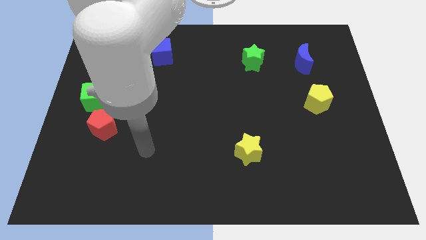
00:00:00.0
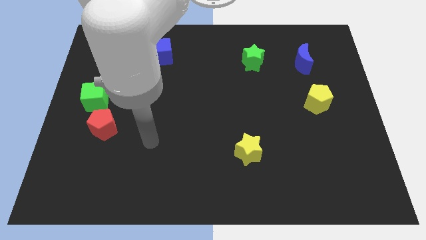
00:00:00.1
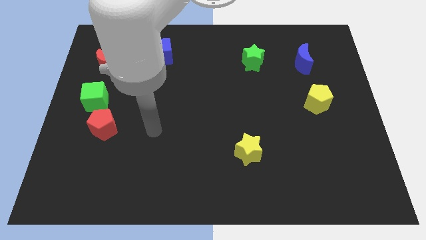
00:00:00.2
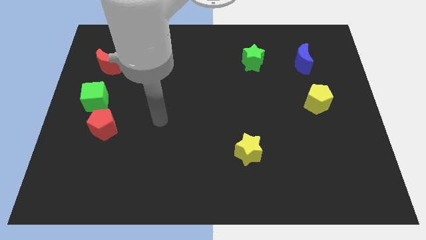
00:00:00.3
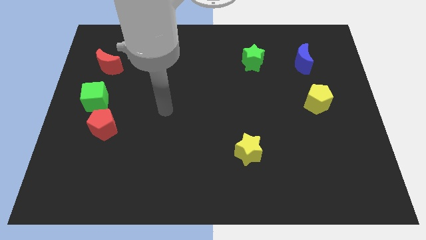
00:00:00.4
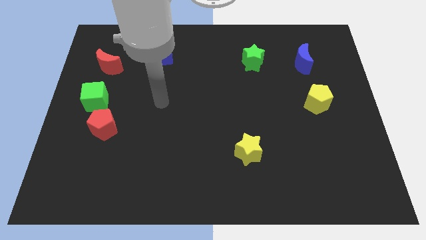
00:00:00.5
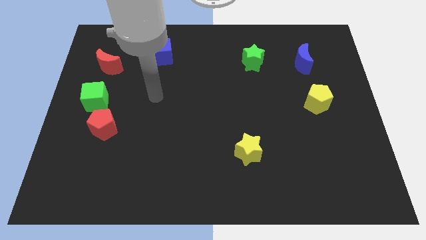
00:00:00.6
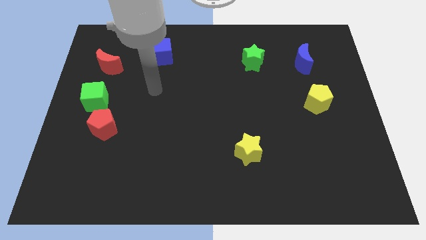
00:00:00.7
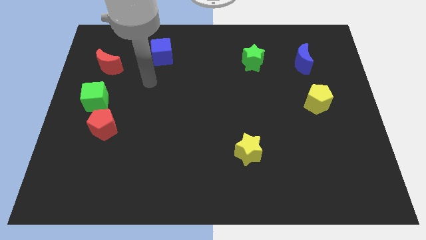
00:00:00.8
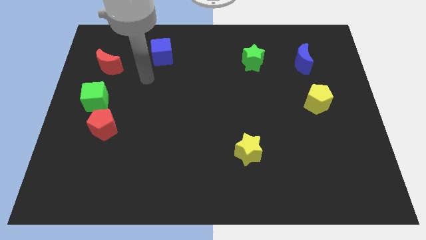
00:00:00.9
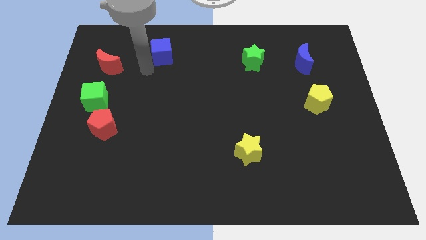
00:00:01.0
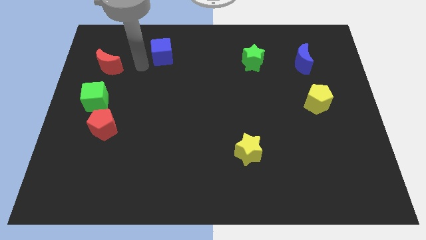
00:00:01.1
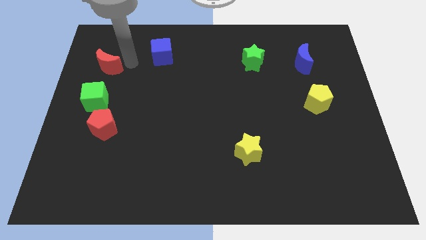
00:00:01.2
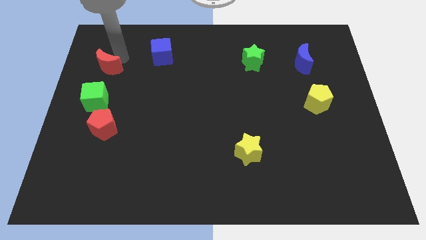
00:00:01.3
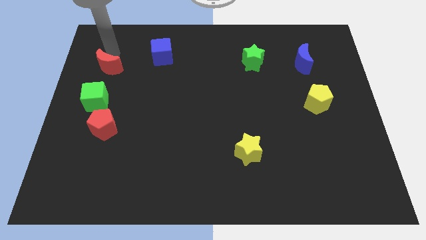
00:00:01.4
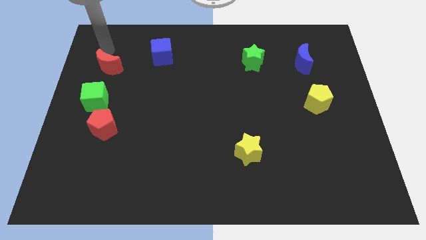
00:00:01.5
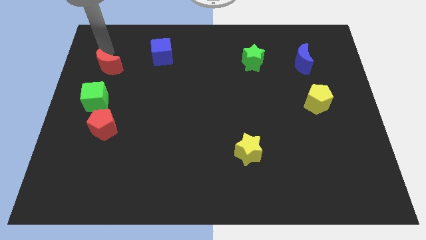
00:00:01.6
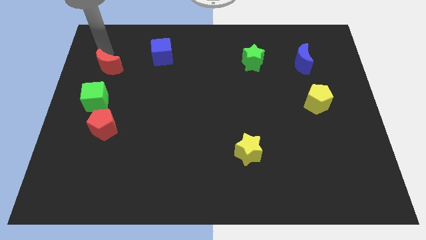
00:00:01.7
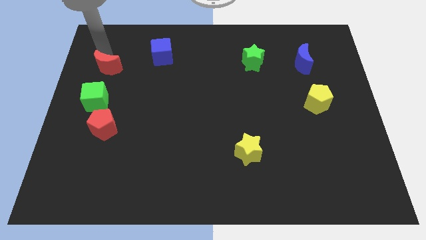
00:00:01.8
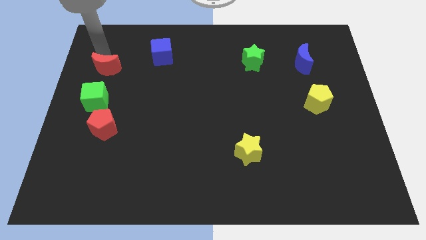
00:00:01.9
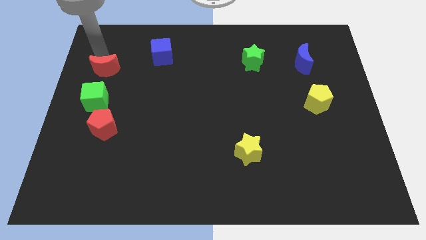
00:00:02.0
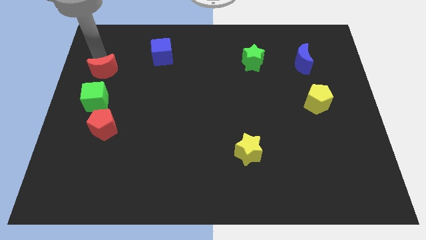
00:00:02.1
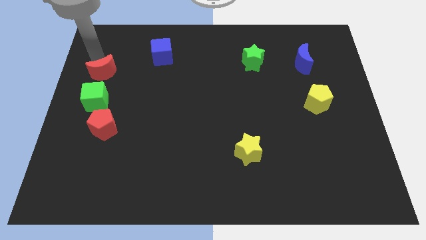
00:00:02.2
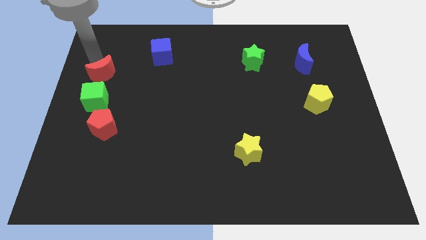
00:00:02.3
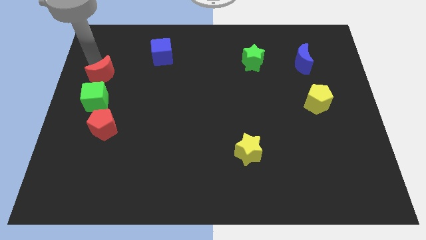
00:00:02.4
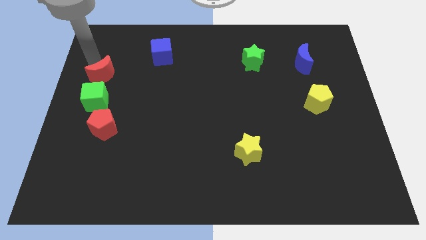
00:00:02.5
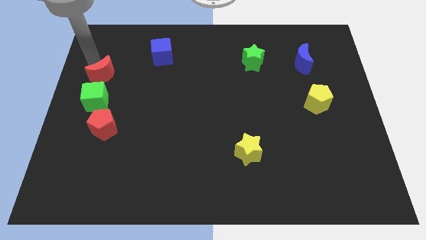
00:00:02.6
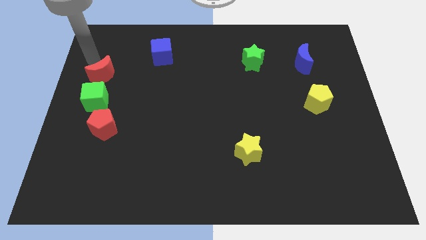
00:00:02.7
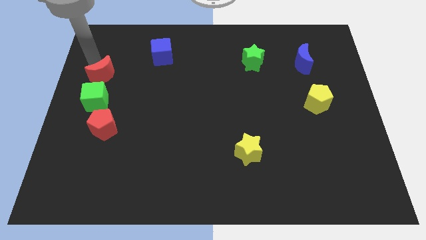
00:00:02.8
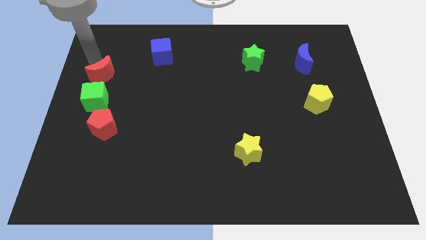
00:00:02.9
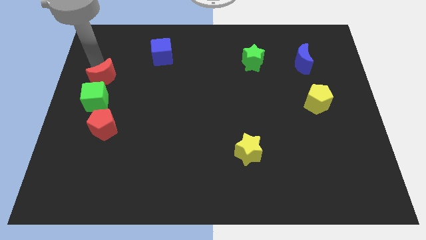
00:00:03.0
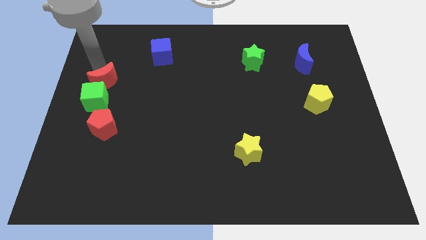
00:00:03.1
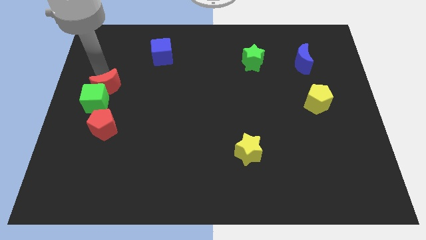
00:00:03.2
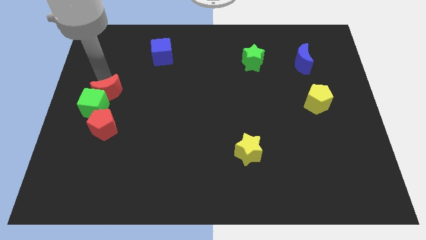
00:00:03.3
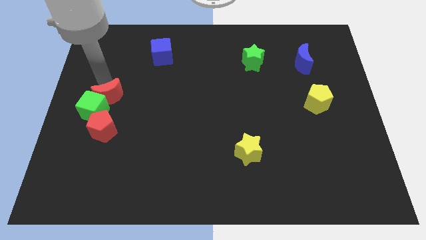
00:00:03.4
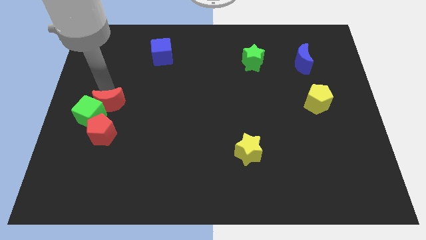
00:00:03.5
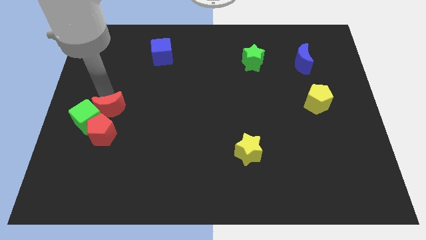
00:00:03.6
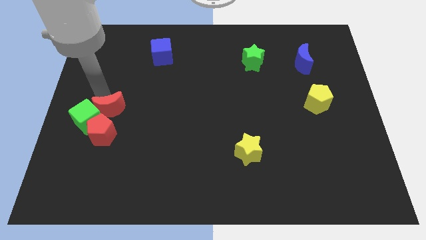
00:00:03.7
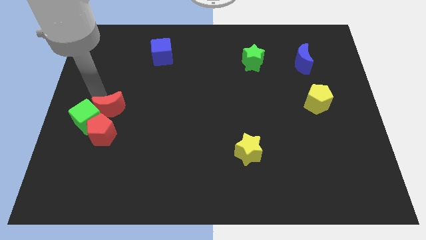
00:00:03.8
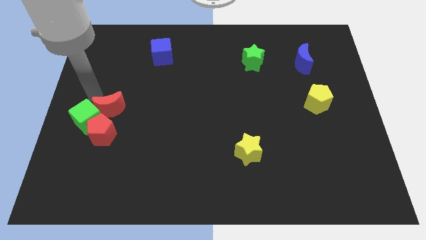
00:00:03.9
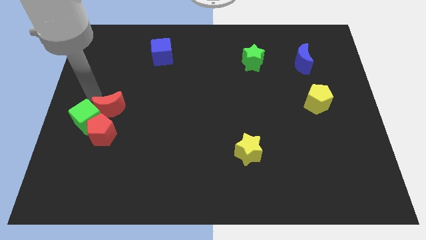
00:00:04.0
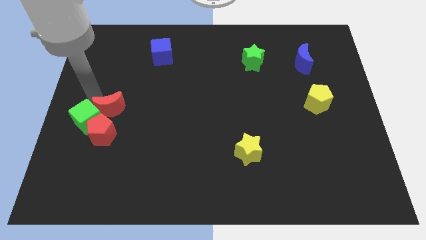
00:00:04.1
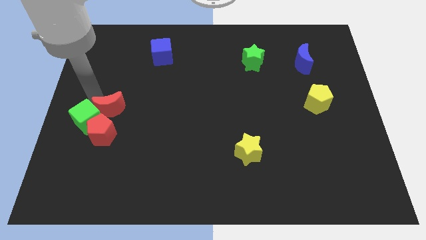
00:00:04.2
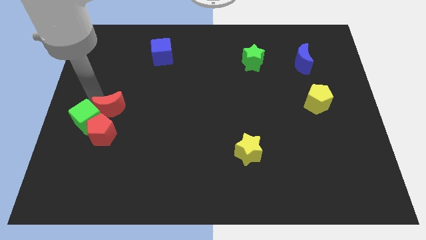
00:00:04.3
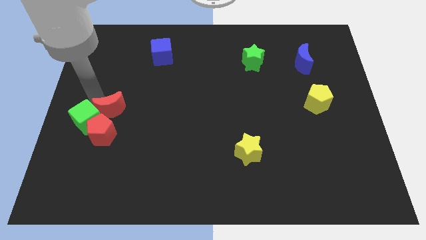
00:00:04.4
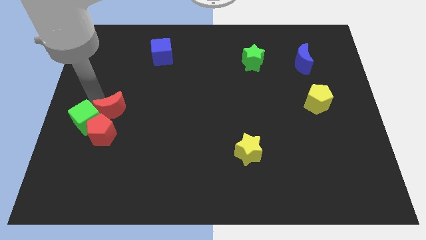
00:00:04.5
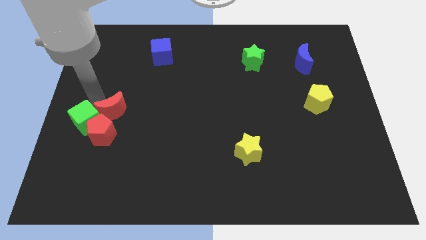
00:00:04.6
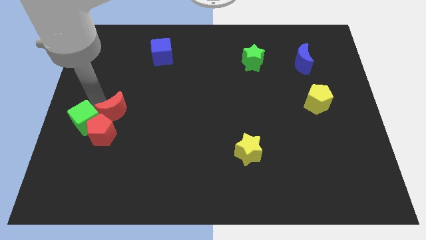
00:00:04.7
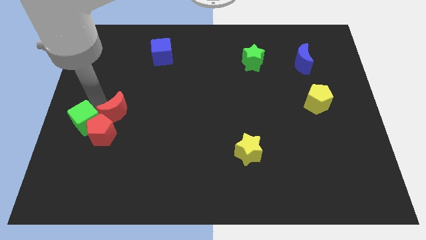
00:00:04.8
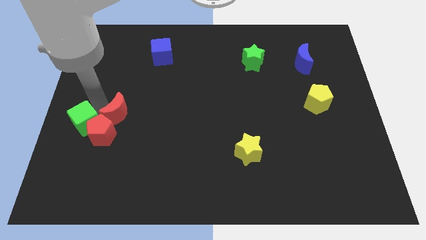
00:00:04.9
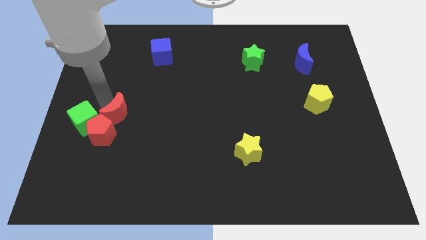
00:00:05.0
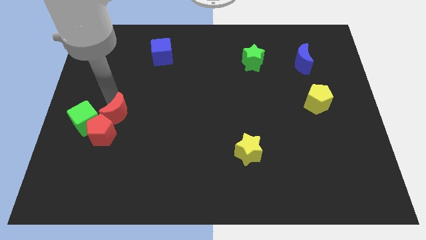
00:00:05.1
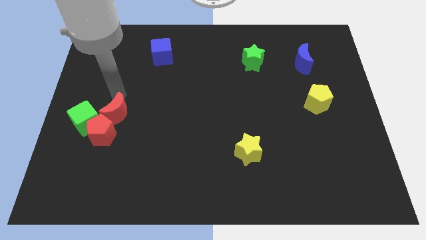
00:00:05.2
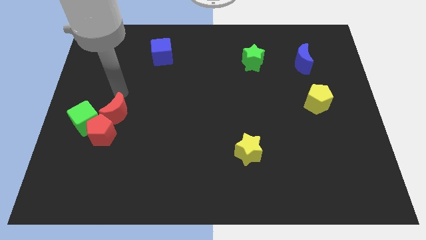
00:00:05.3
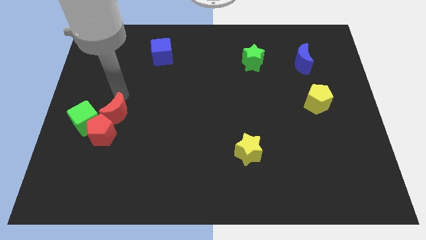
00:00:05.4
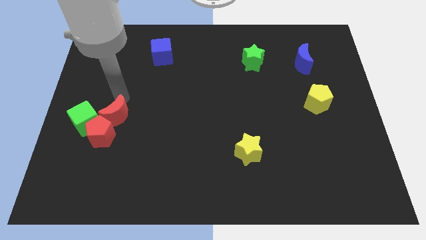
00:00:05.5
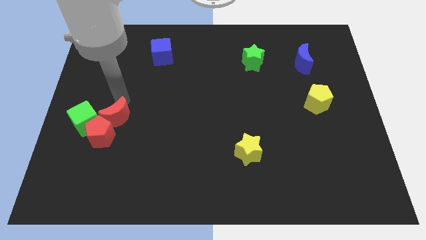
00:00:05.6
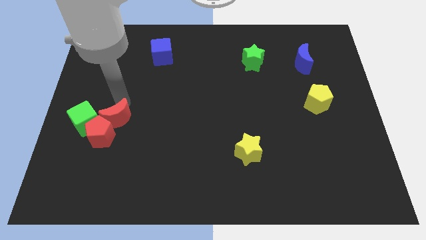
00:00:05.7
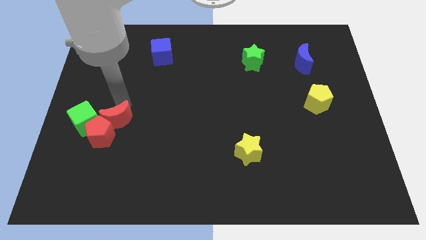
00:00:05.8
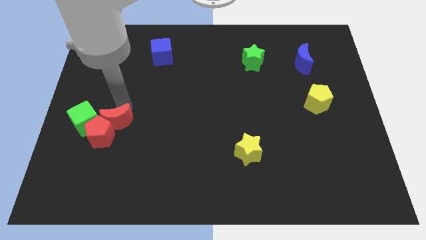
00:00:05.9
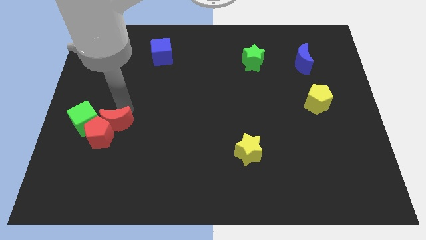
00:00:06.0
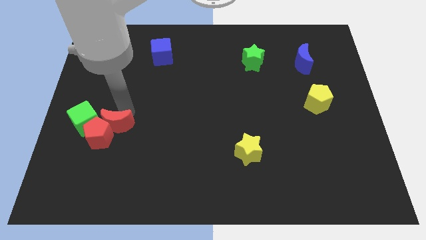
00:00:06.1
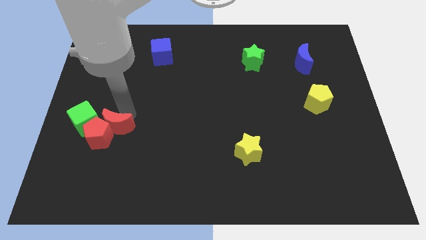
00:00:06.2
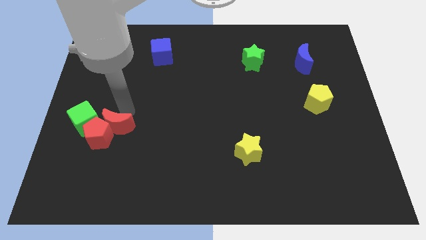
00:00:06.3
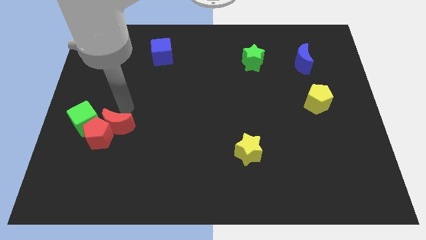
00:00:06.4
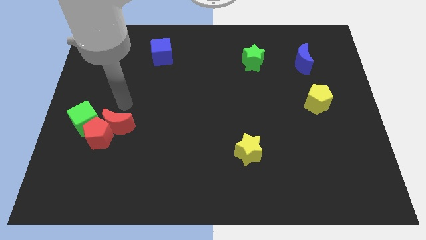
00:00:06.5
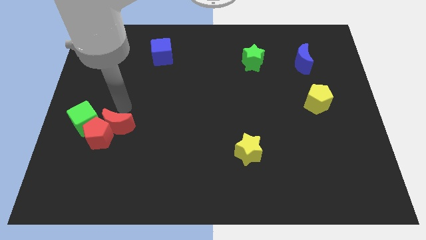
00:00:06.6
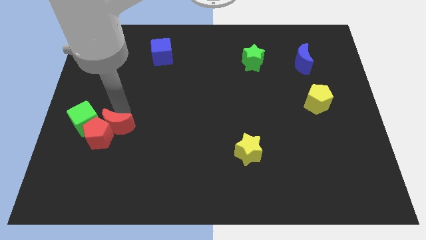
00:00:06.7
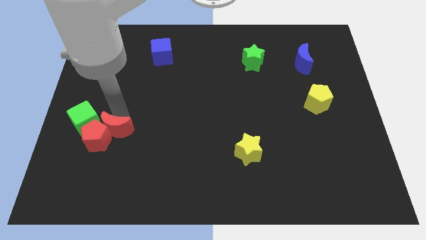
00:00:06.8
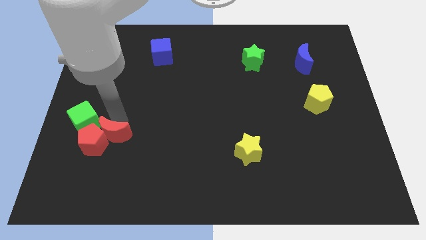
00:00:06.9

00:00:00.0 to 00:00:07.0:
slide the red moon downwards

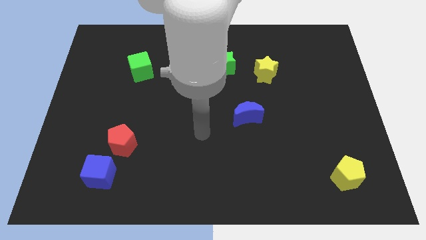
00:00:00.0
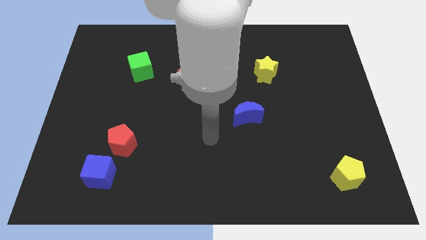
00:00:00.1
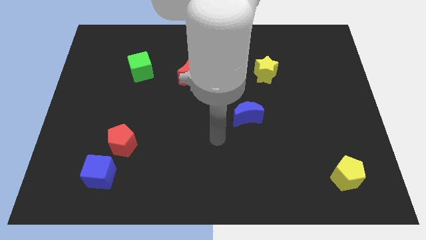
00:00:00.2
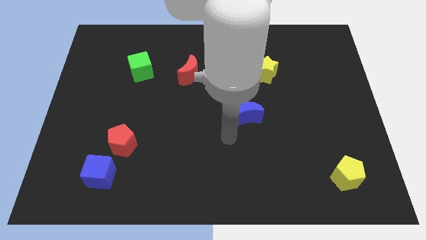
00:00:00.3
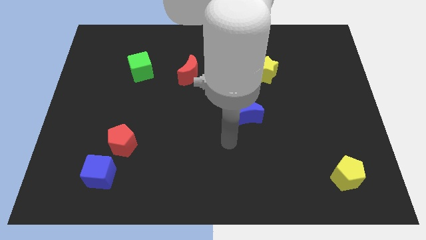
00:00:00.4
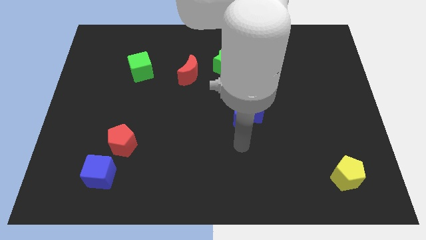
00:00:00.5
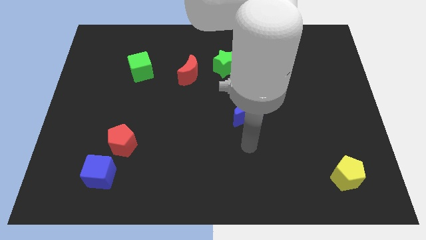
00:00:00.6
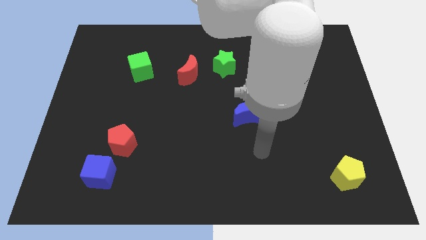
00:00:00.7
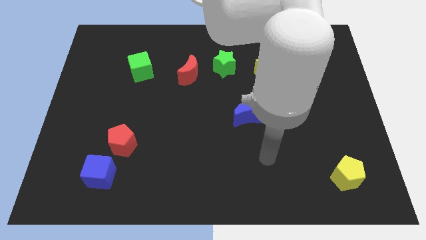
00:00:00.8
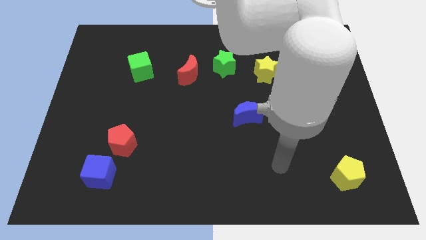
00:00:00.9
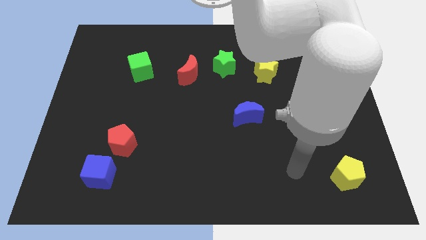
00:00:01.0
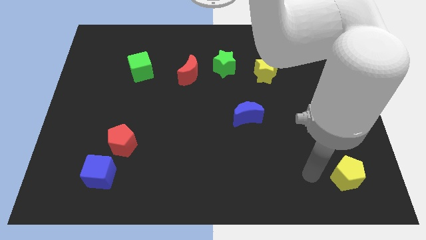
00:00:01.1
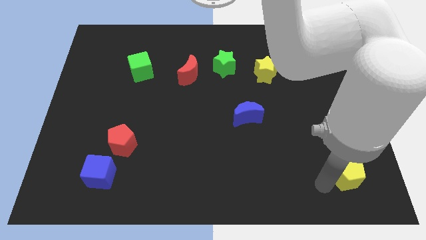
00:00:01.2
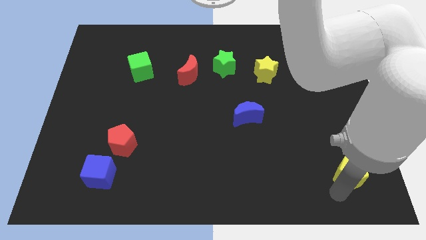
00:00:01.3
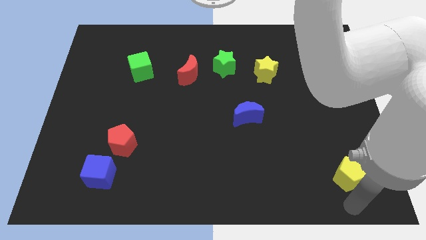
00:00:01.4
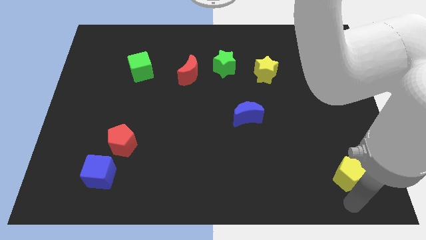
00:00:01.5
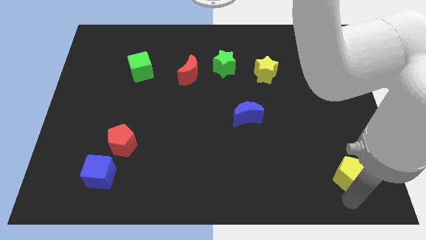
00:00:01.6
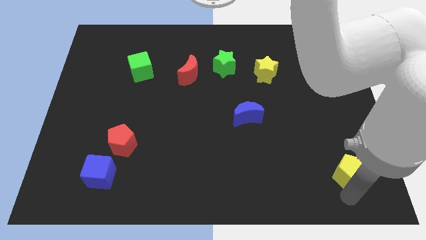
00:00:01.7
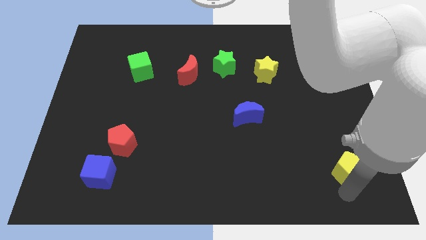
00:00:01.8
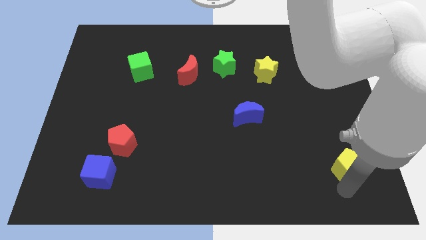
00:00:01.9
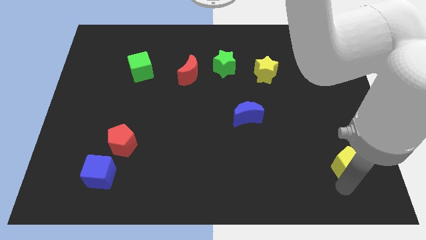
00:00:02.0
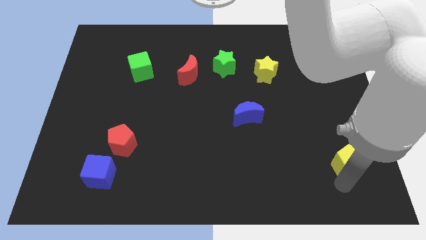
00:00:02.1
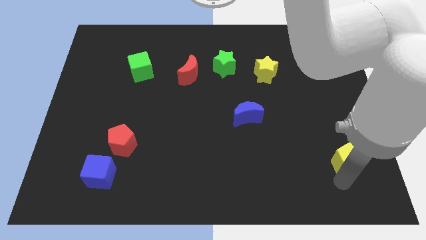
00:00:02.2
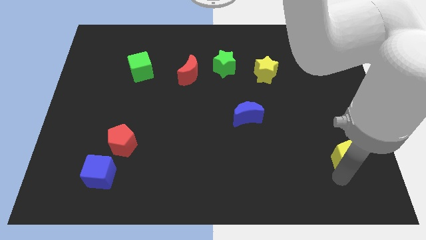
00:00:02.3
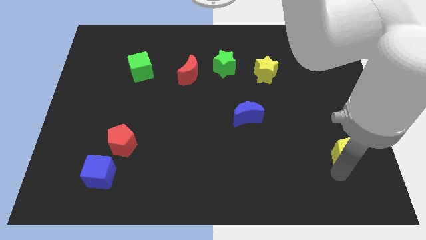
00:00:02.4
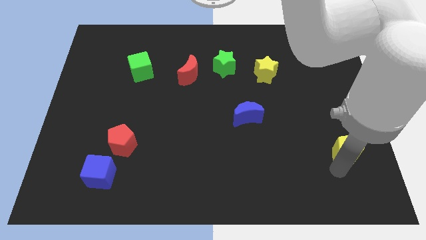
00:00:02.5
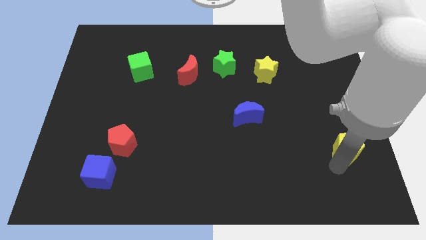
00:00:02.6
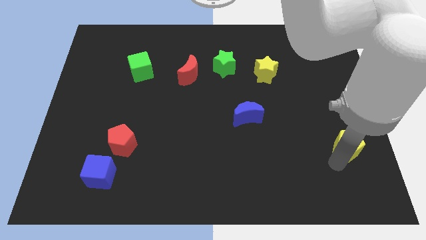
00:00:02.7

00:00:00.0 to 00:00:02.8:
slightly move the yellow pentagon upwards
